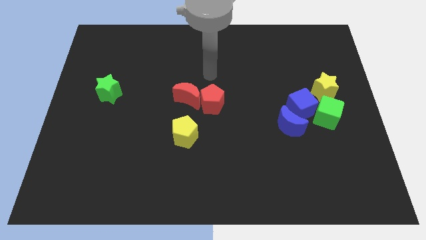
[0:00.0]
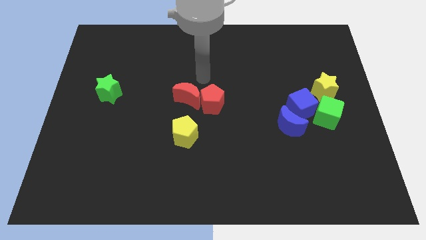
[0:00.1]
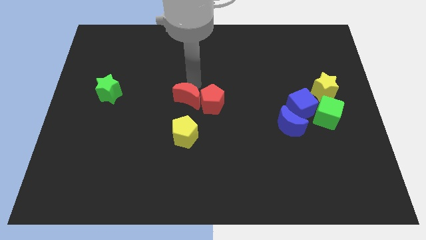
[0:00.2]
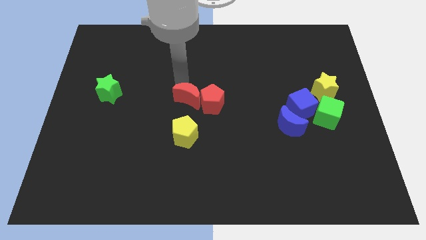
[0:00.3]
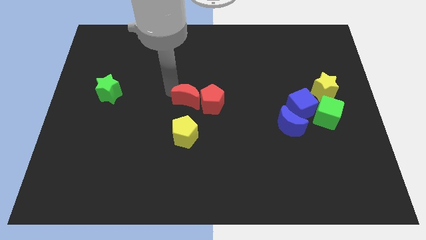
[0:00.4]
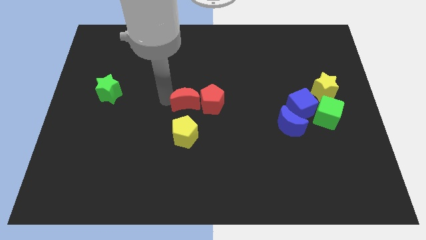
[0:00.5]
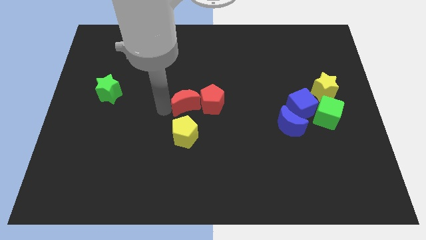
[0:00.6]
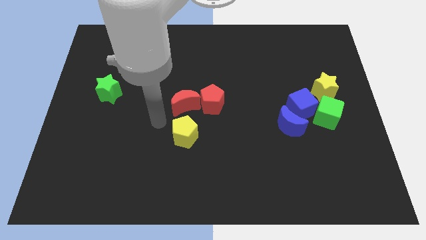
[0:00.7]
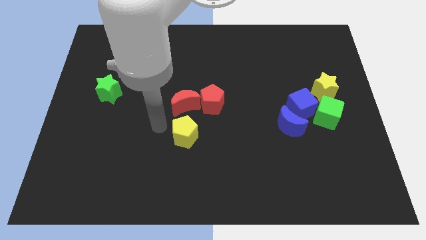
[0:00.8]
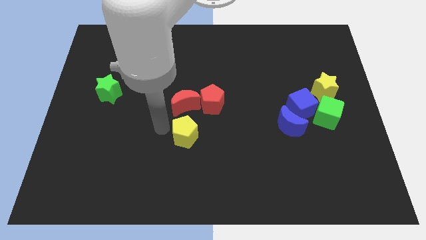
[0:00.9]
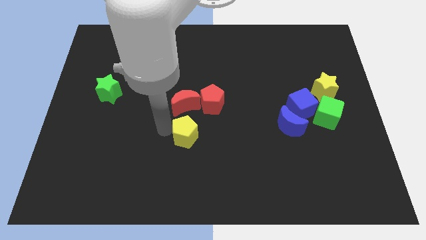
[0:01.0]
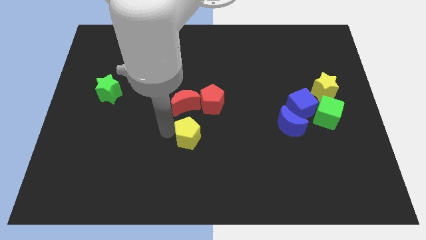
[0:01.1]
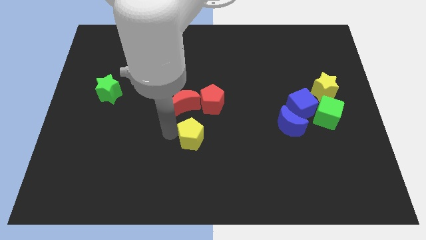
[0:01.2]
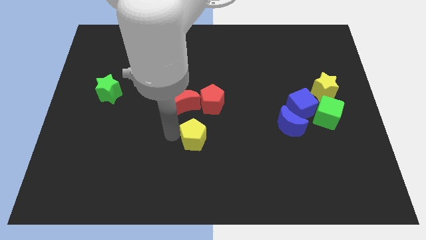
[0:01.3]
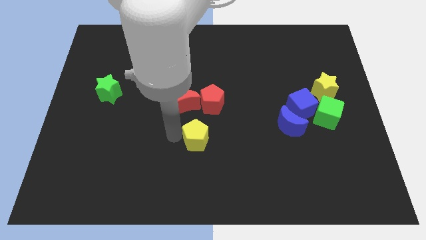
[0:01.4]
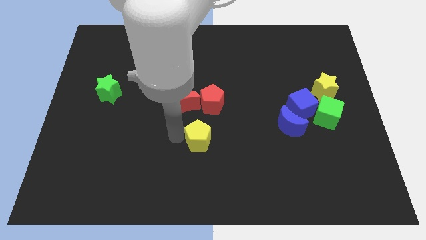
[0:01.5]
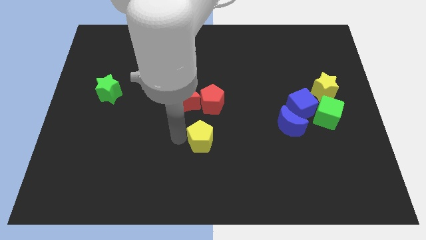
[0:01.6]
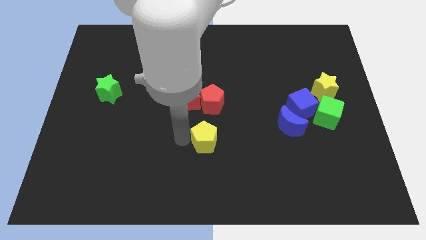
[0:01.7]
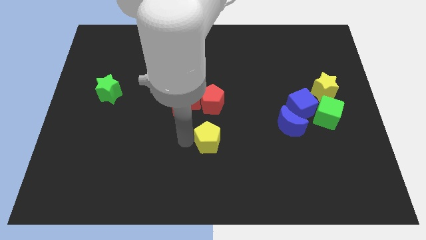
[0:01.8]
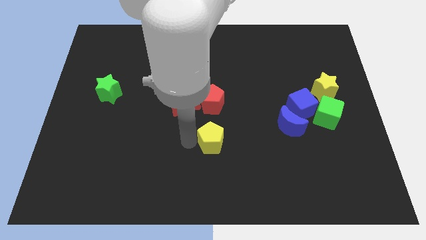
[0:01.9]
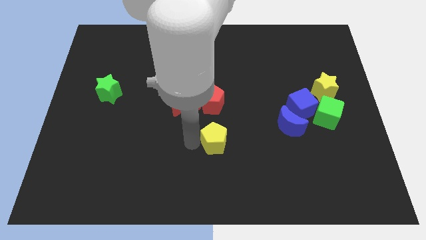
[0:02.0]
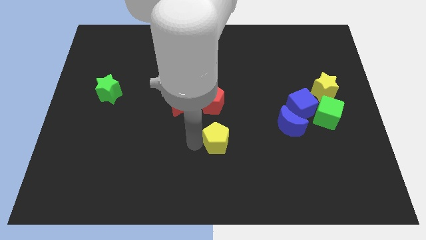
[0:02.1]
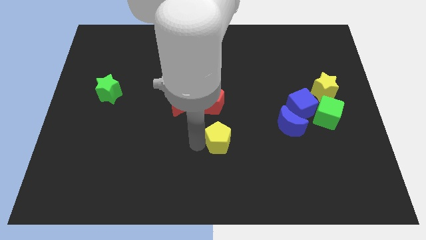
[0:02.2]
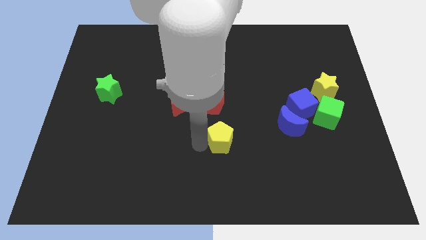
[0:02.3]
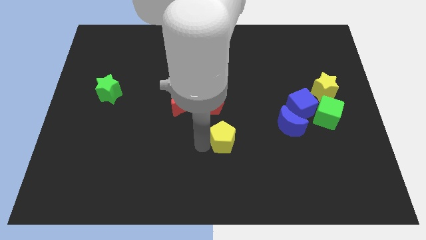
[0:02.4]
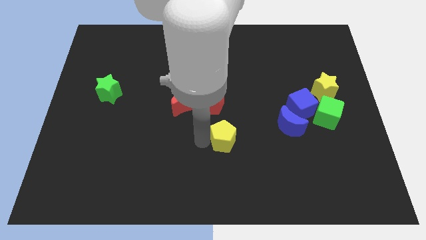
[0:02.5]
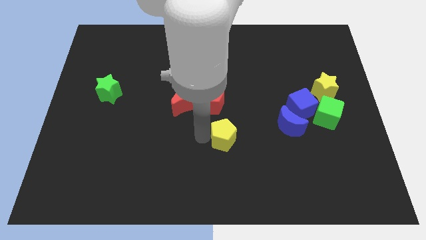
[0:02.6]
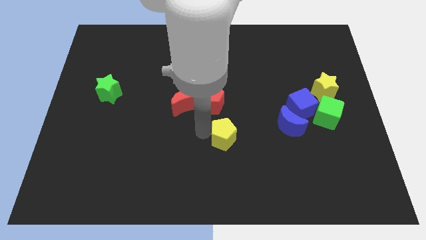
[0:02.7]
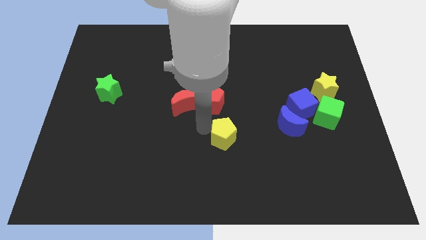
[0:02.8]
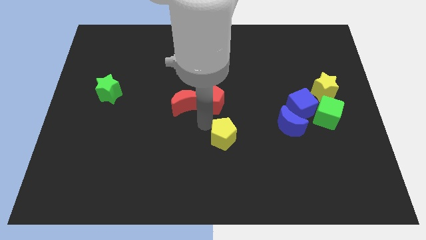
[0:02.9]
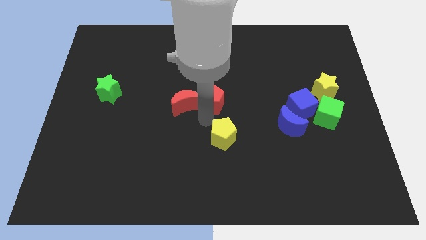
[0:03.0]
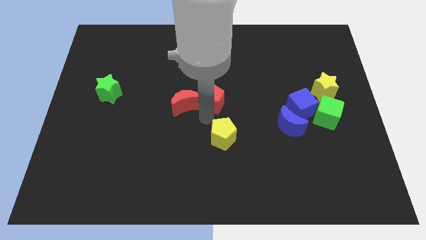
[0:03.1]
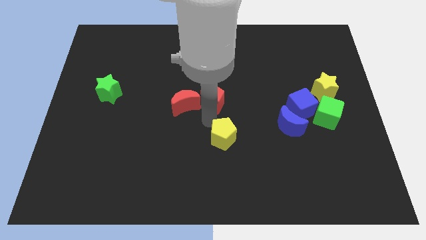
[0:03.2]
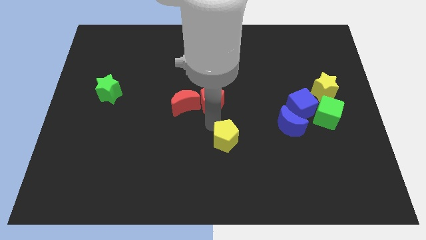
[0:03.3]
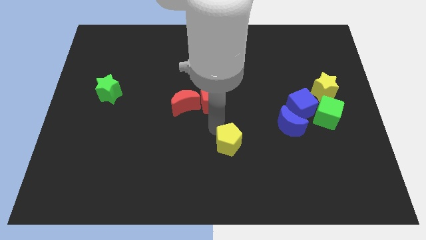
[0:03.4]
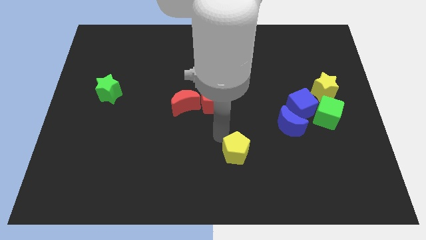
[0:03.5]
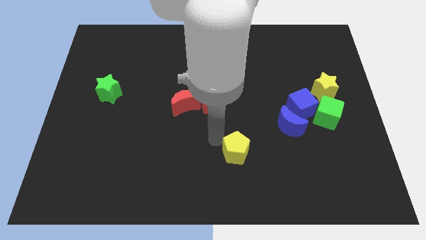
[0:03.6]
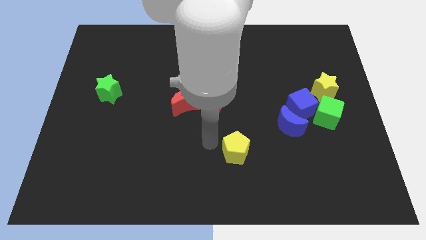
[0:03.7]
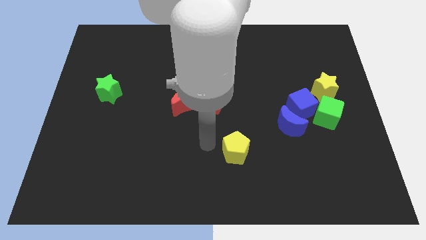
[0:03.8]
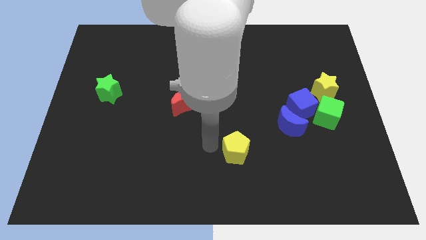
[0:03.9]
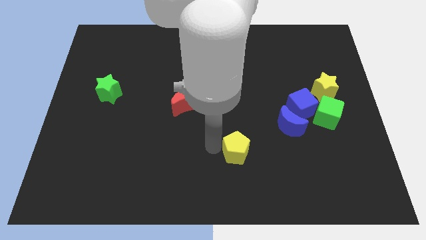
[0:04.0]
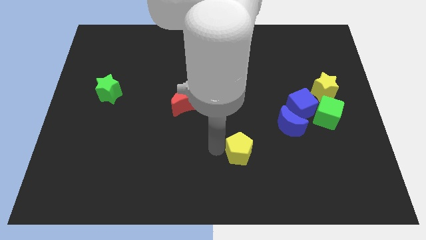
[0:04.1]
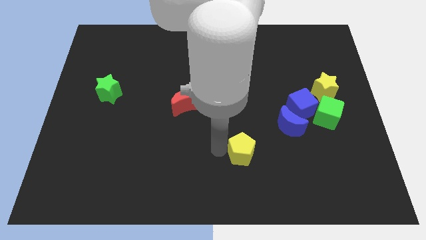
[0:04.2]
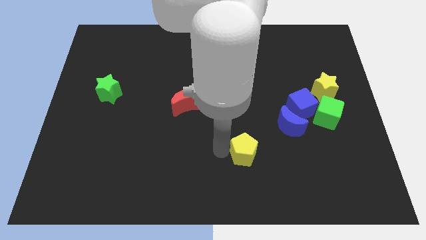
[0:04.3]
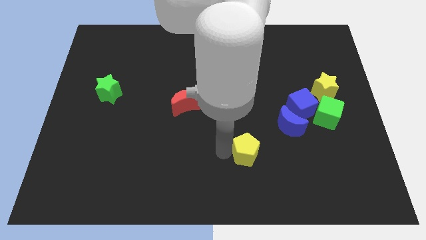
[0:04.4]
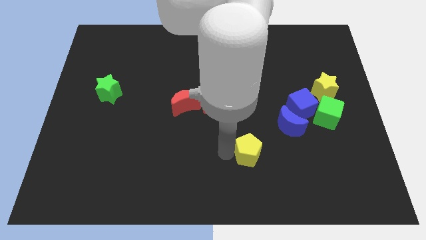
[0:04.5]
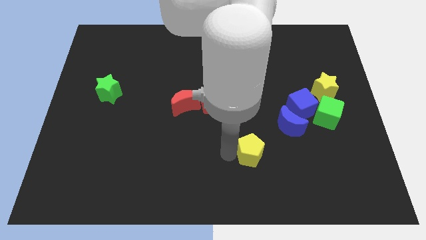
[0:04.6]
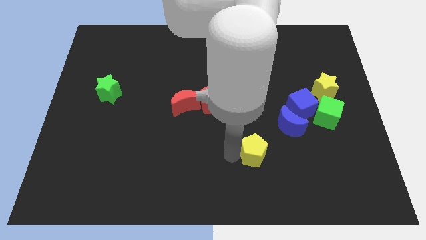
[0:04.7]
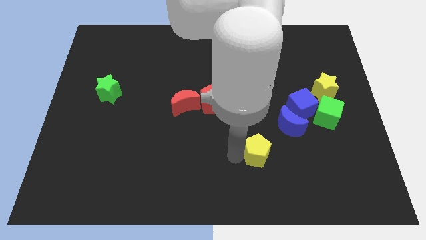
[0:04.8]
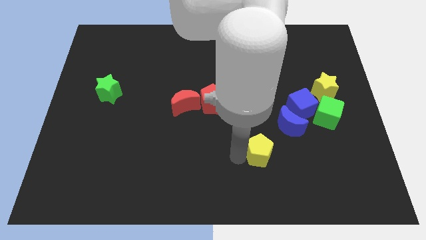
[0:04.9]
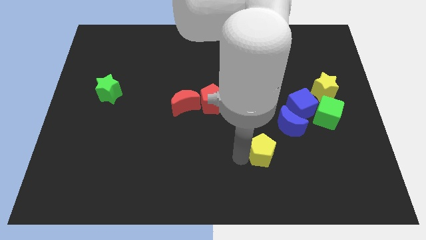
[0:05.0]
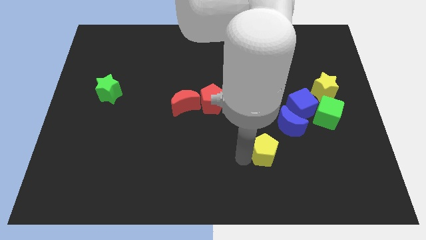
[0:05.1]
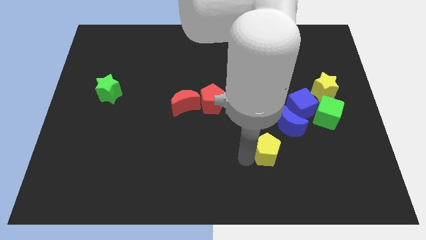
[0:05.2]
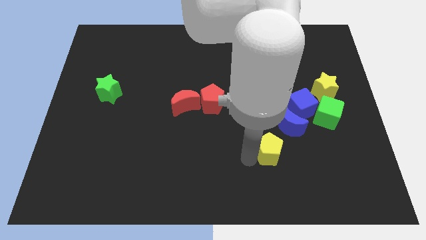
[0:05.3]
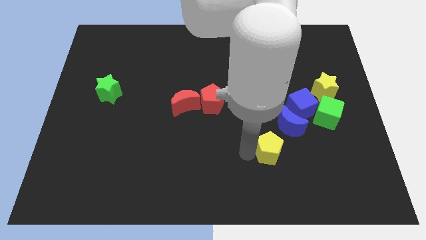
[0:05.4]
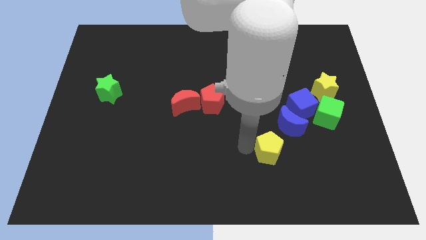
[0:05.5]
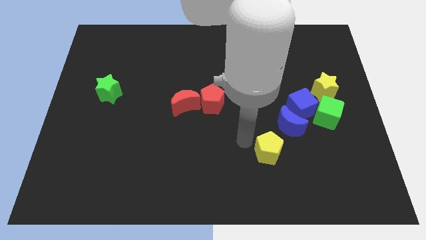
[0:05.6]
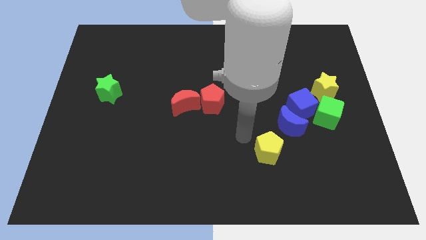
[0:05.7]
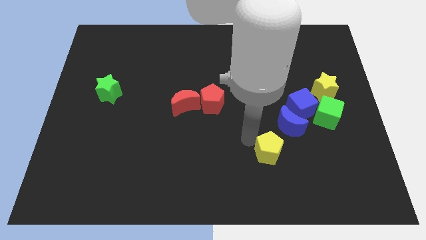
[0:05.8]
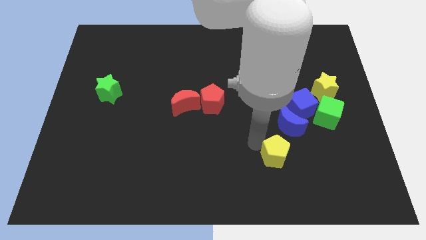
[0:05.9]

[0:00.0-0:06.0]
slide the yellow pentagon to the bottom side of the blue moon

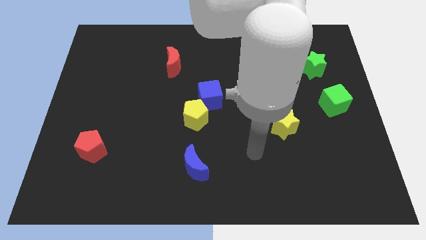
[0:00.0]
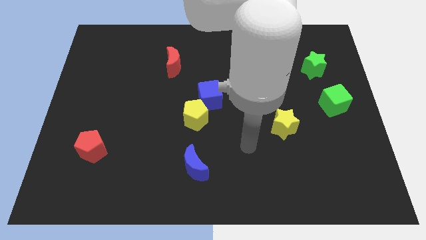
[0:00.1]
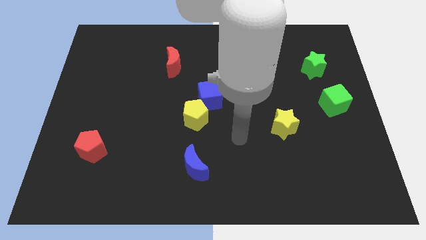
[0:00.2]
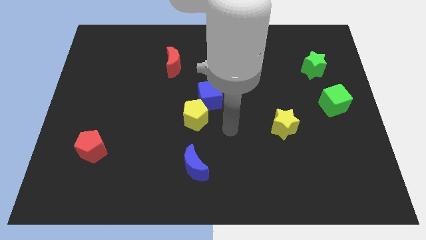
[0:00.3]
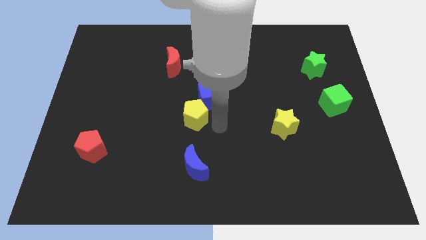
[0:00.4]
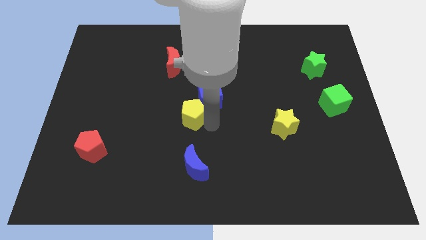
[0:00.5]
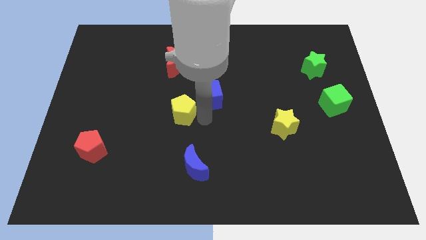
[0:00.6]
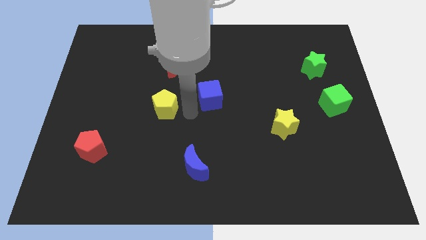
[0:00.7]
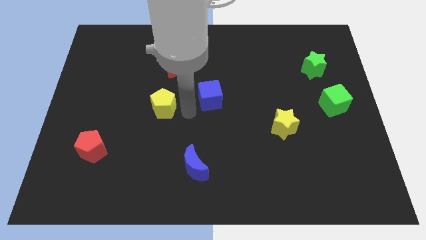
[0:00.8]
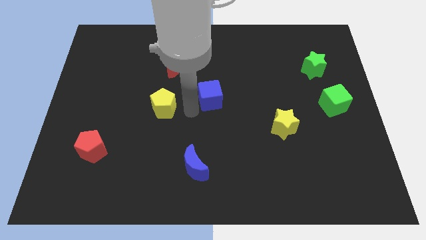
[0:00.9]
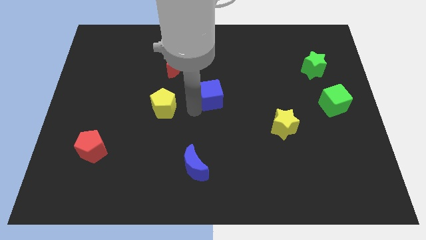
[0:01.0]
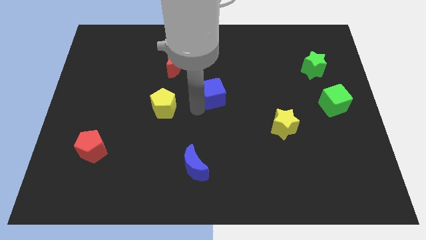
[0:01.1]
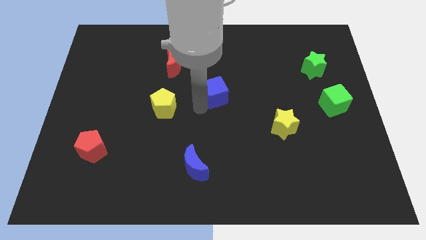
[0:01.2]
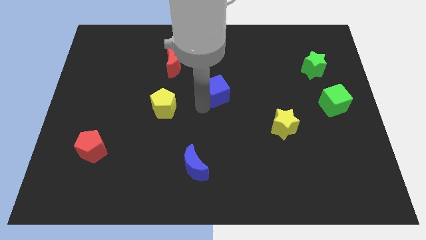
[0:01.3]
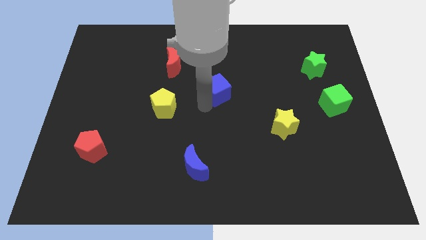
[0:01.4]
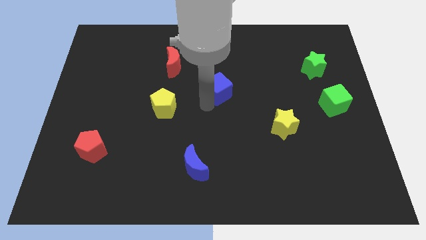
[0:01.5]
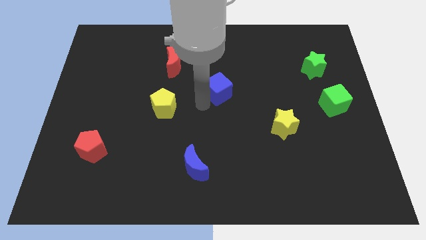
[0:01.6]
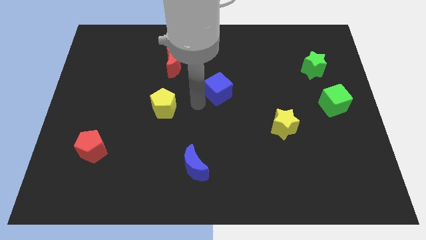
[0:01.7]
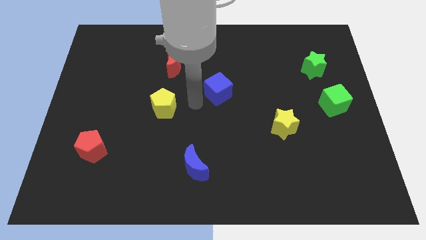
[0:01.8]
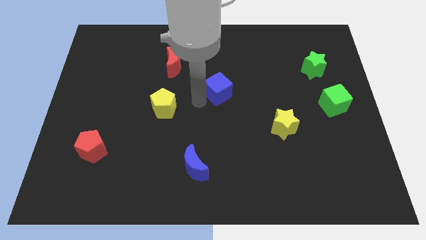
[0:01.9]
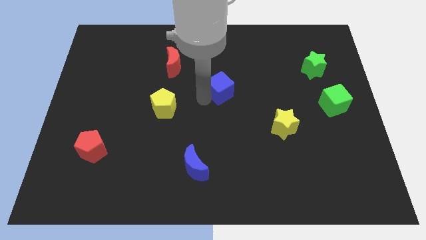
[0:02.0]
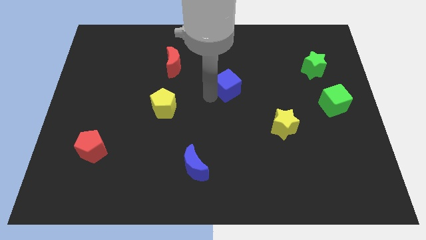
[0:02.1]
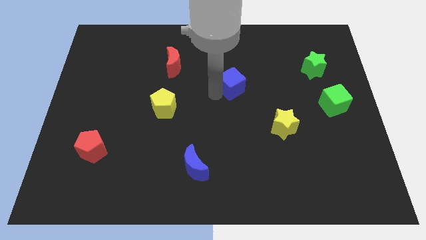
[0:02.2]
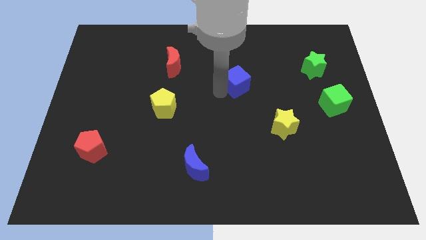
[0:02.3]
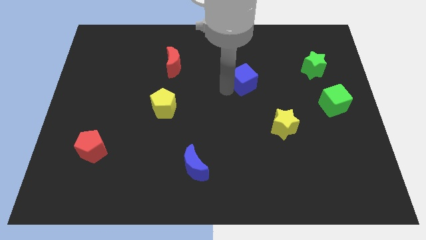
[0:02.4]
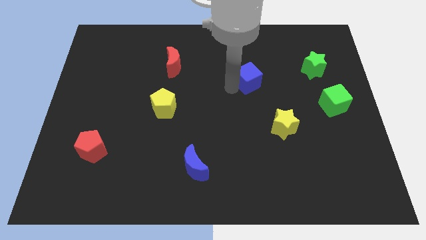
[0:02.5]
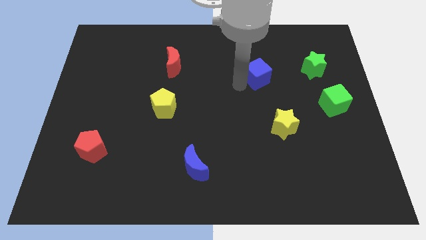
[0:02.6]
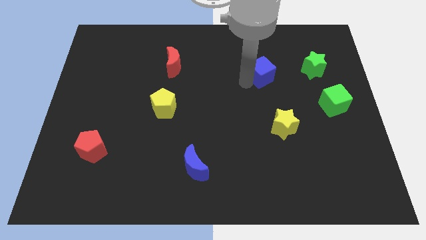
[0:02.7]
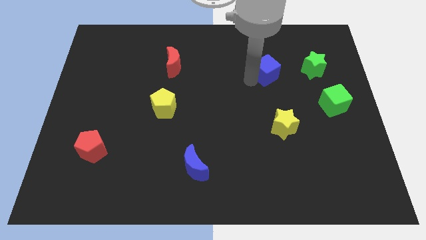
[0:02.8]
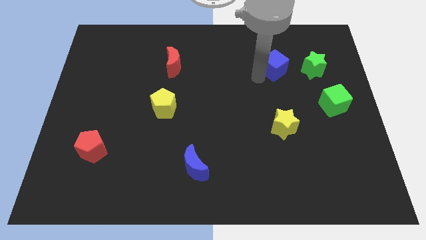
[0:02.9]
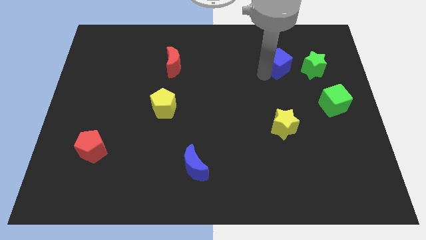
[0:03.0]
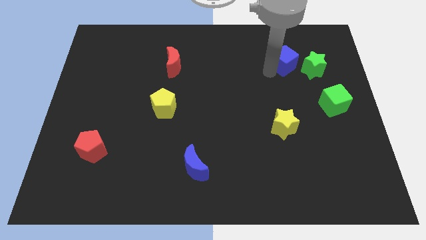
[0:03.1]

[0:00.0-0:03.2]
push the blue cube to the top left side of the green star
